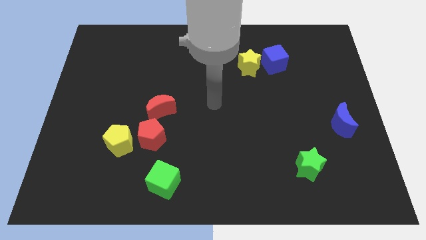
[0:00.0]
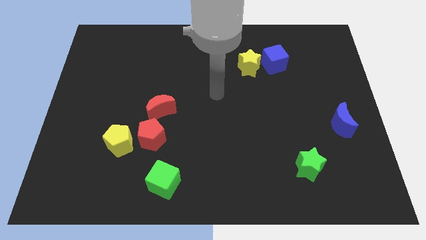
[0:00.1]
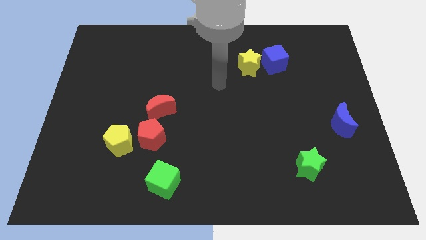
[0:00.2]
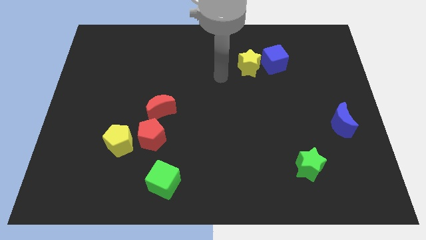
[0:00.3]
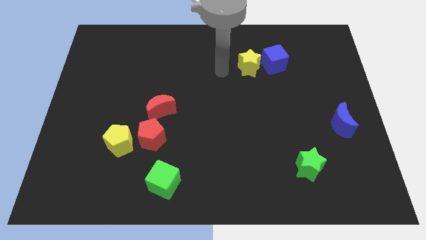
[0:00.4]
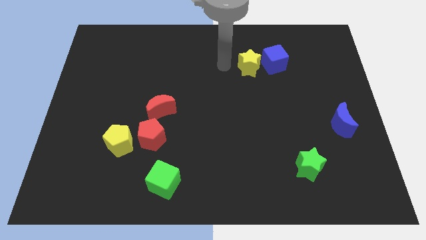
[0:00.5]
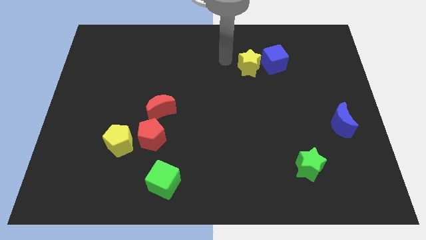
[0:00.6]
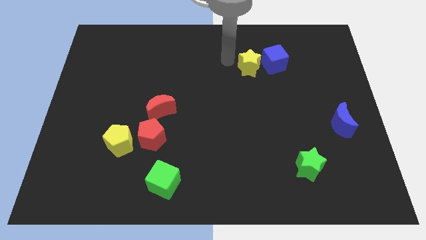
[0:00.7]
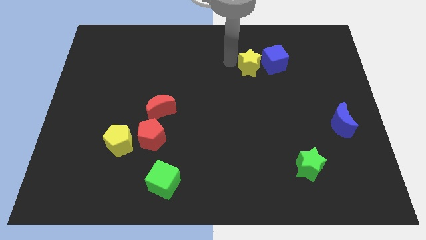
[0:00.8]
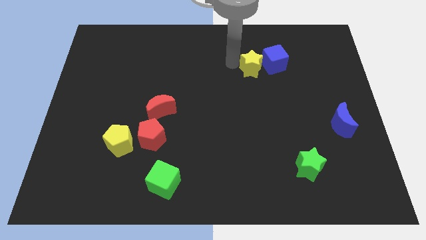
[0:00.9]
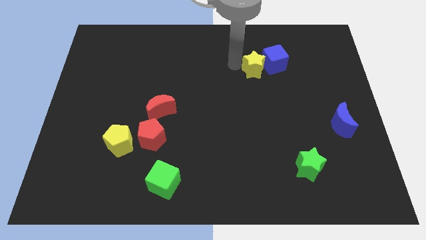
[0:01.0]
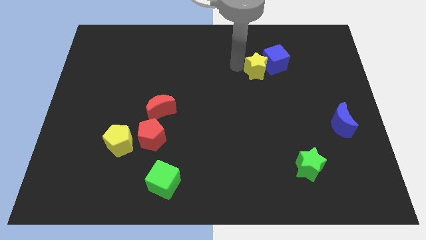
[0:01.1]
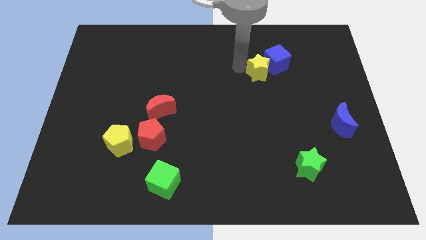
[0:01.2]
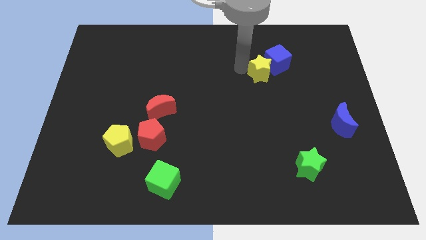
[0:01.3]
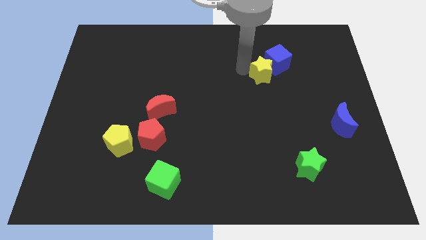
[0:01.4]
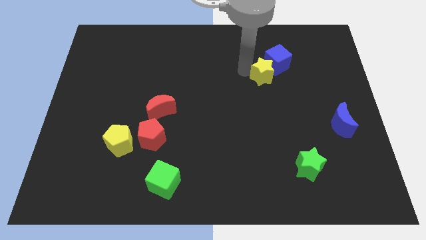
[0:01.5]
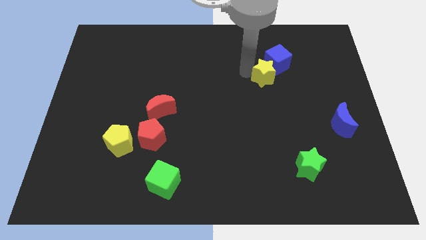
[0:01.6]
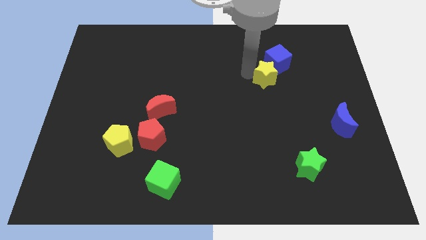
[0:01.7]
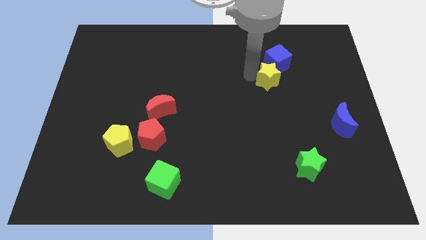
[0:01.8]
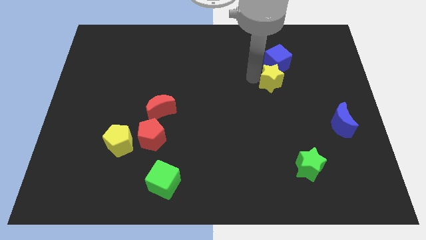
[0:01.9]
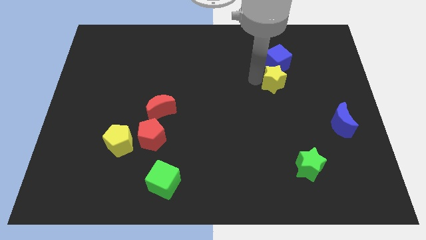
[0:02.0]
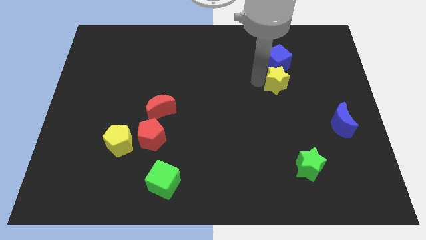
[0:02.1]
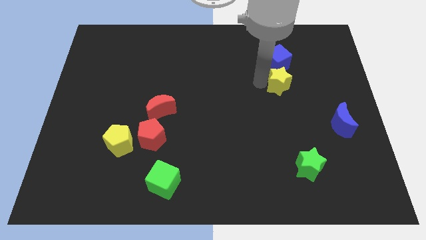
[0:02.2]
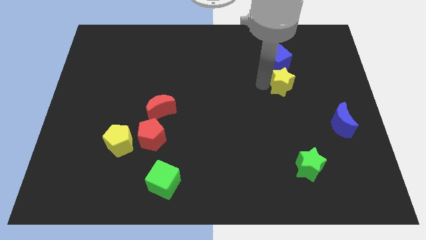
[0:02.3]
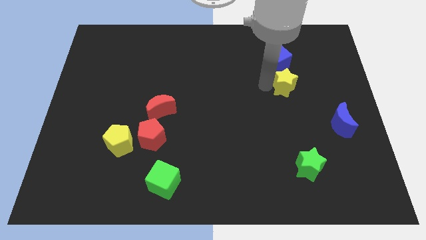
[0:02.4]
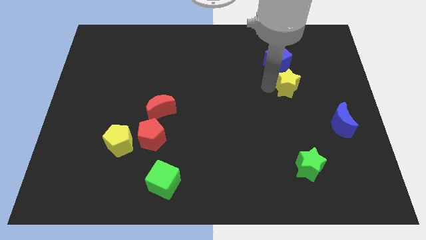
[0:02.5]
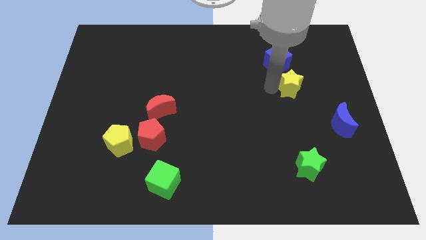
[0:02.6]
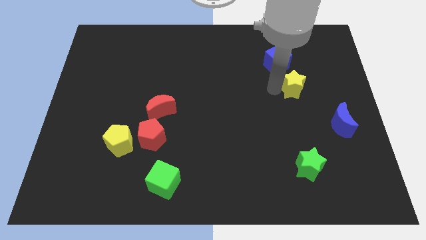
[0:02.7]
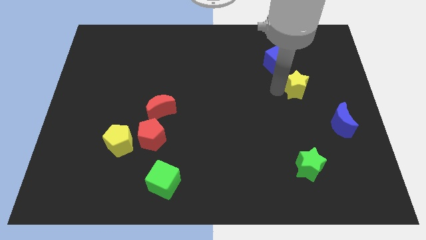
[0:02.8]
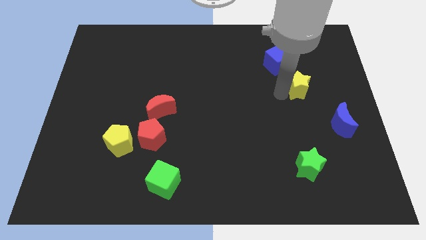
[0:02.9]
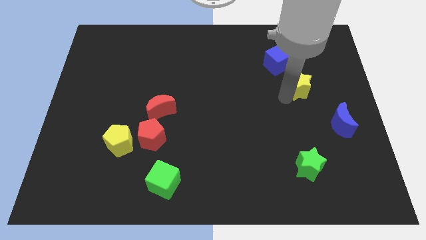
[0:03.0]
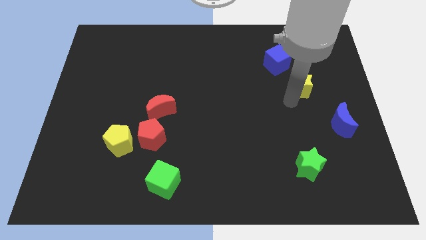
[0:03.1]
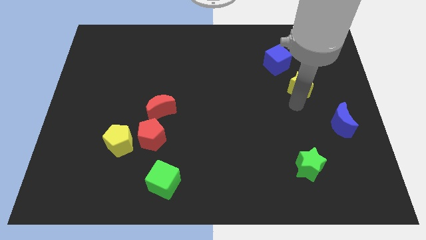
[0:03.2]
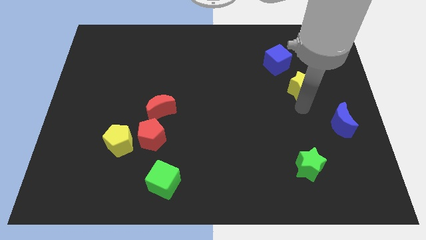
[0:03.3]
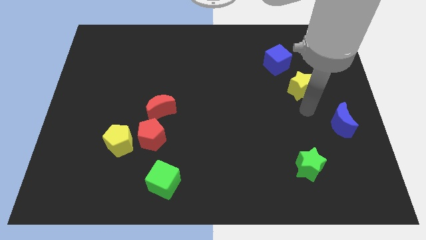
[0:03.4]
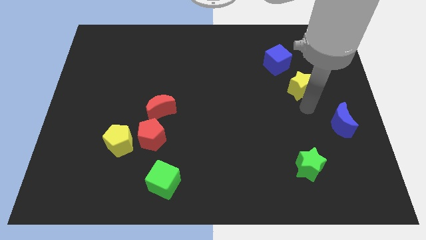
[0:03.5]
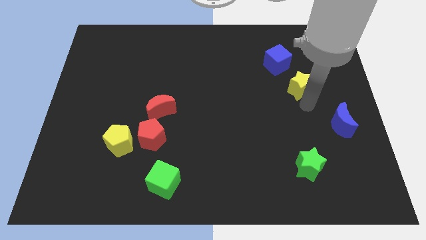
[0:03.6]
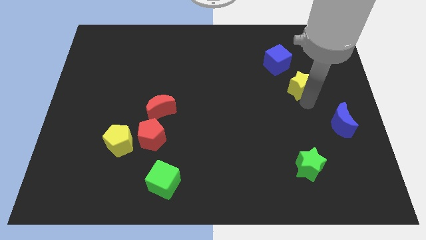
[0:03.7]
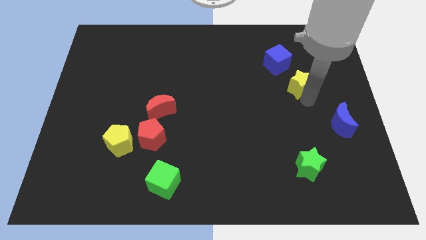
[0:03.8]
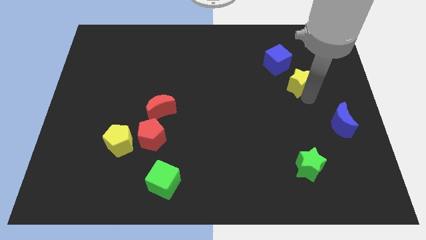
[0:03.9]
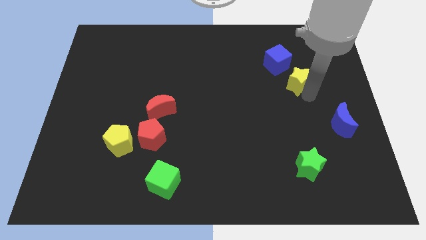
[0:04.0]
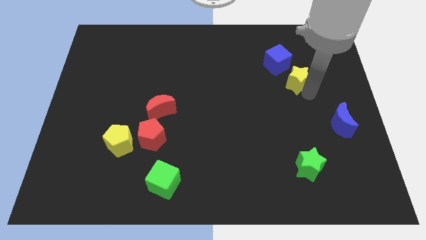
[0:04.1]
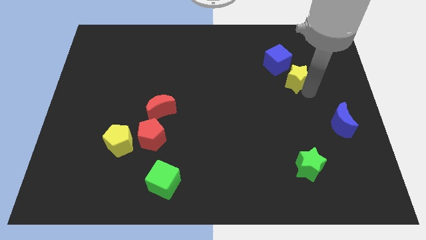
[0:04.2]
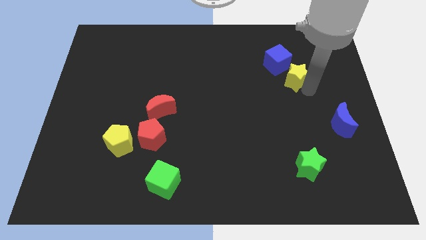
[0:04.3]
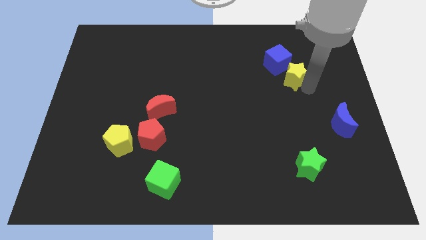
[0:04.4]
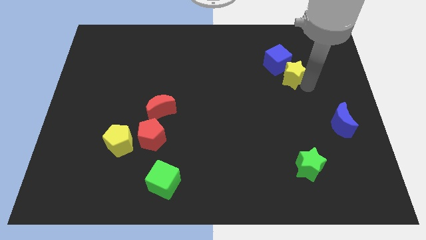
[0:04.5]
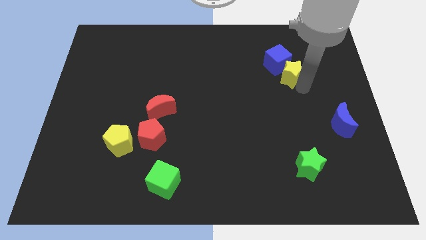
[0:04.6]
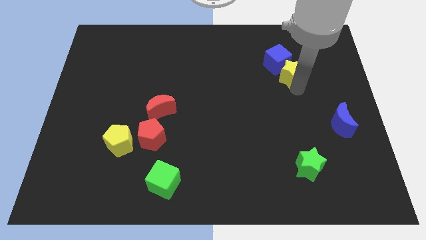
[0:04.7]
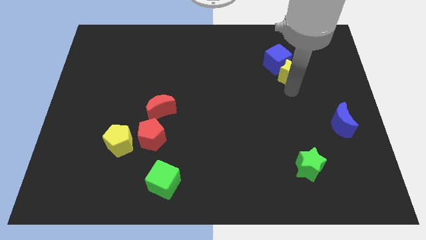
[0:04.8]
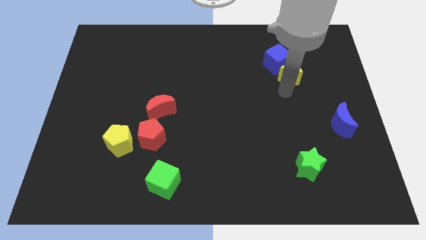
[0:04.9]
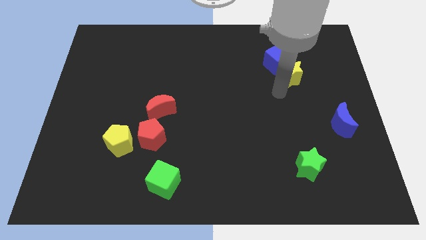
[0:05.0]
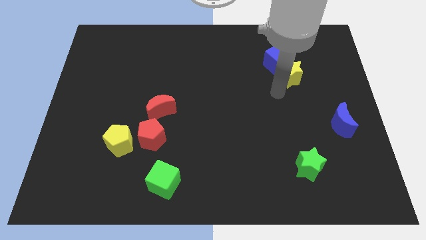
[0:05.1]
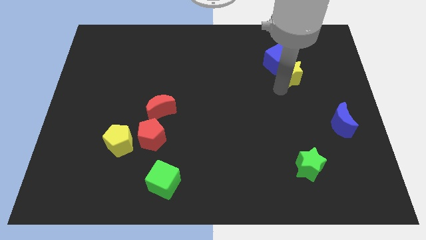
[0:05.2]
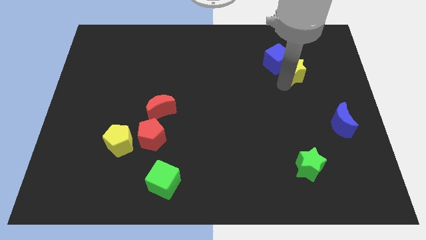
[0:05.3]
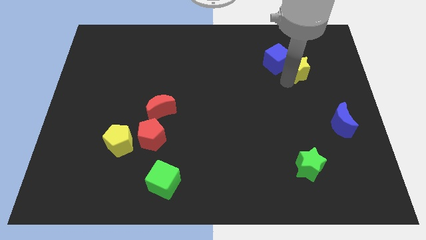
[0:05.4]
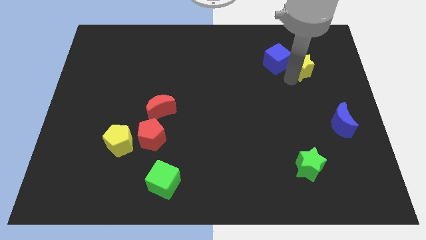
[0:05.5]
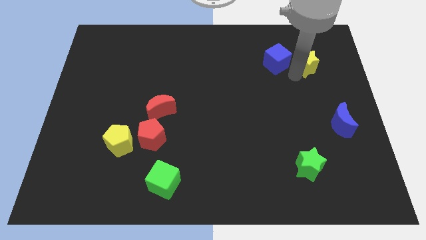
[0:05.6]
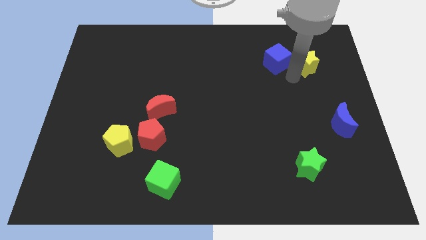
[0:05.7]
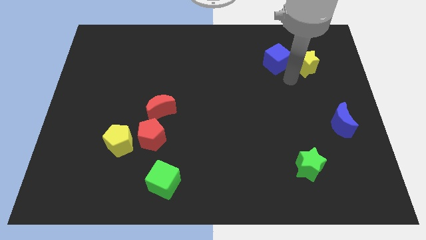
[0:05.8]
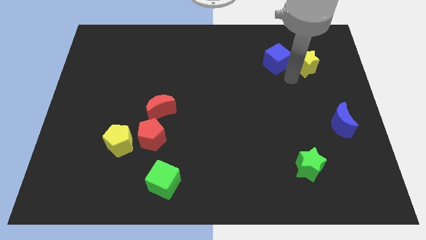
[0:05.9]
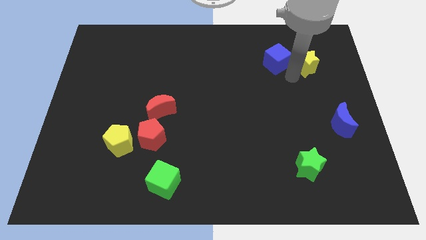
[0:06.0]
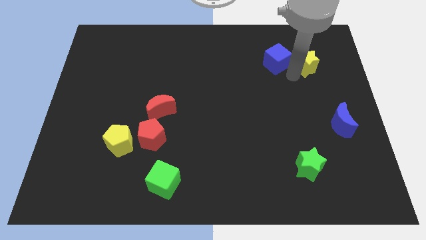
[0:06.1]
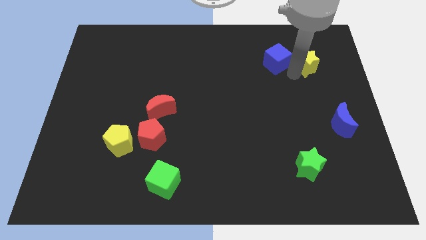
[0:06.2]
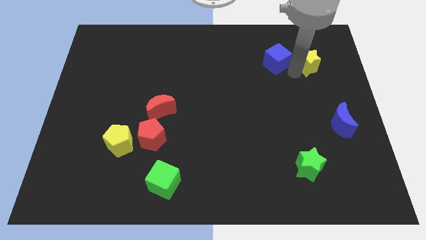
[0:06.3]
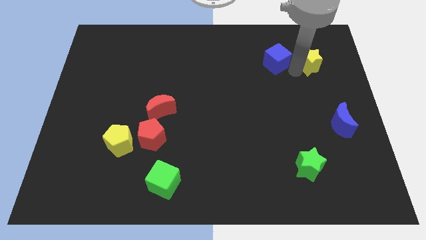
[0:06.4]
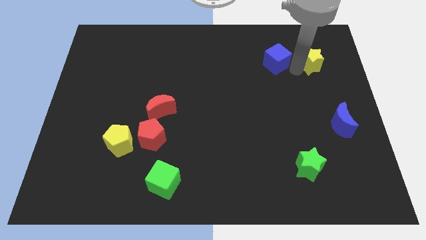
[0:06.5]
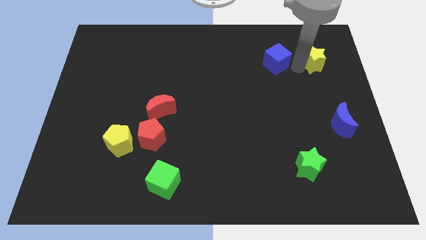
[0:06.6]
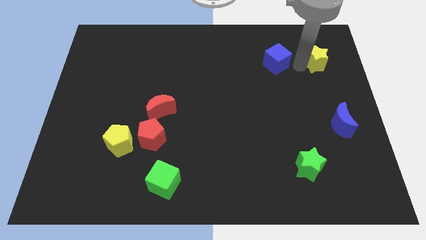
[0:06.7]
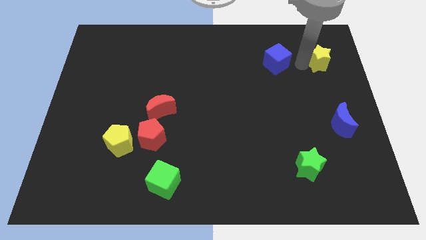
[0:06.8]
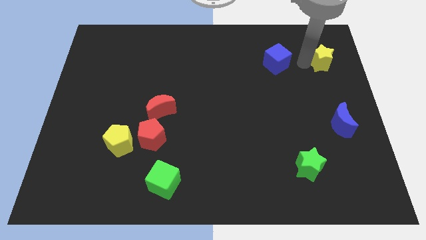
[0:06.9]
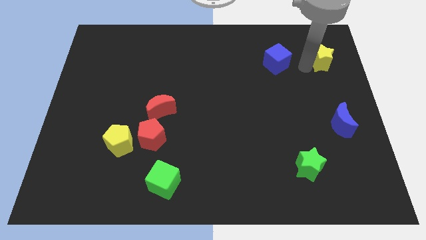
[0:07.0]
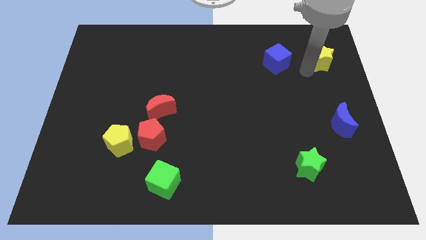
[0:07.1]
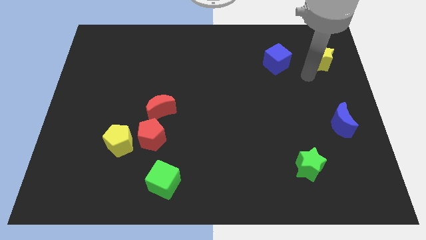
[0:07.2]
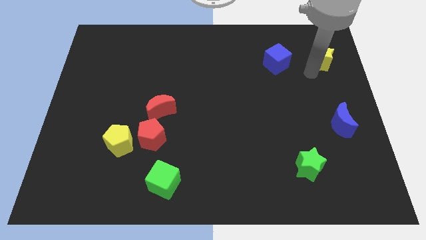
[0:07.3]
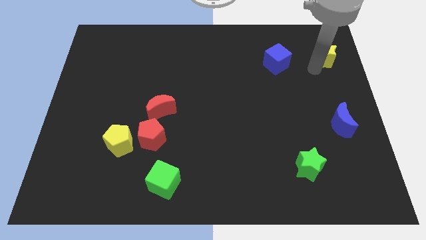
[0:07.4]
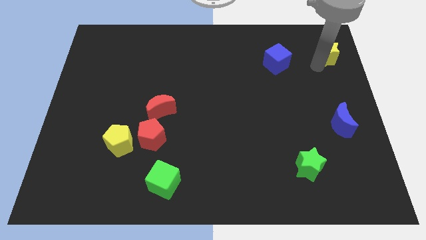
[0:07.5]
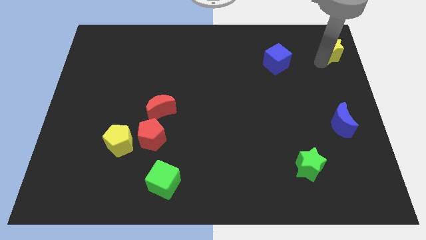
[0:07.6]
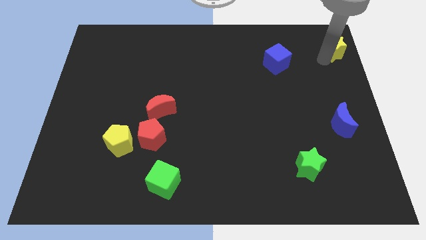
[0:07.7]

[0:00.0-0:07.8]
put the yellow star to the top right corner
